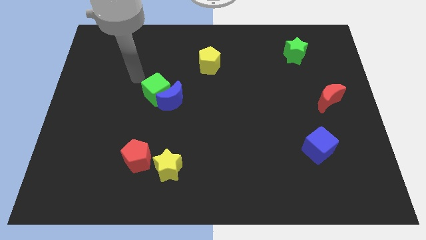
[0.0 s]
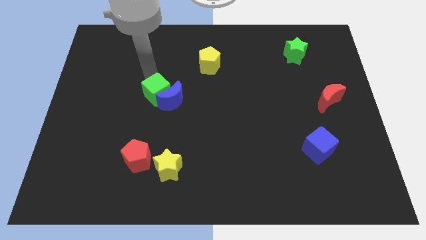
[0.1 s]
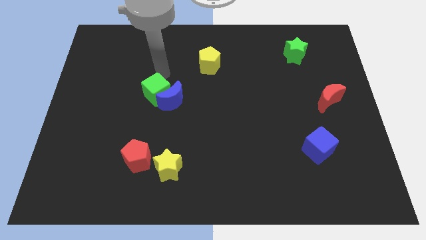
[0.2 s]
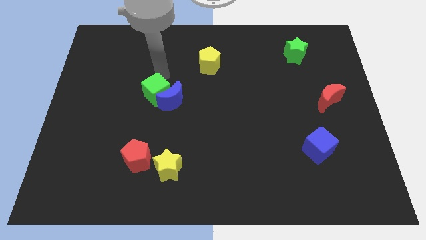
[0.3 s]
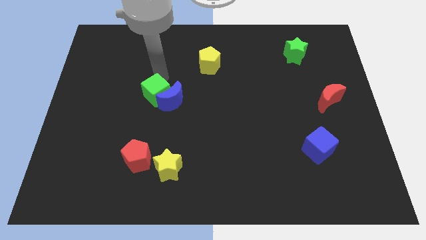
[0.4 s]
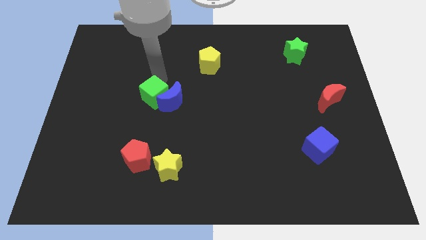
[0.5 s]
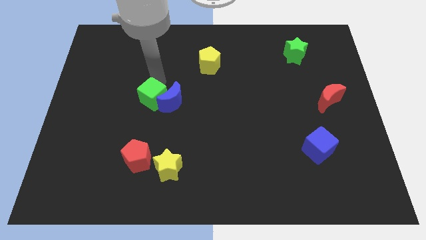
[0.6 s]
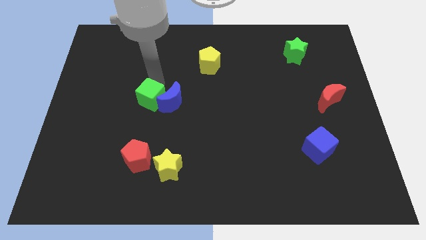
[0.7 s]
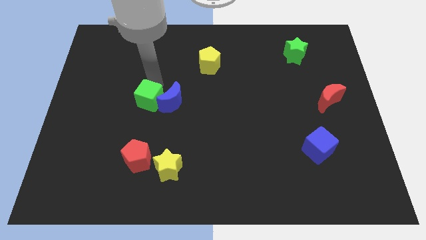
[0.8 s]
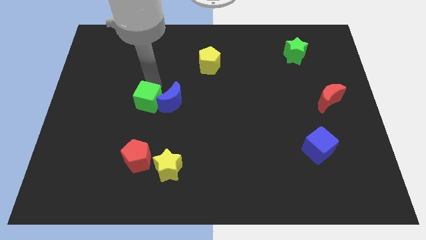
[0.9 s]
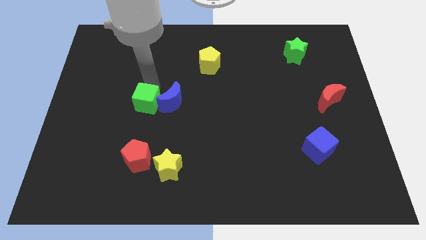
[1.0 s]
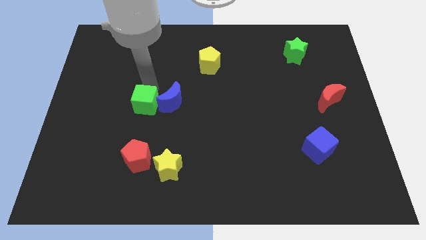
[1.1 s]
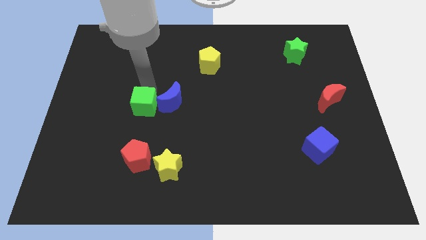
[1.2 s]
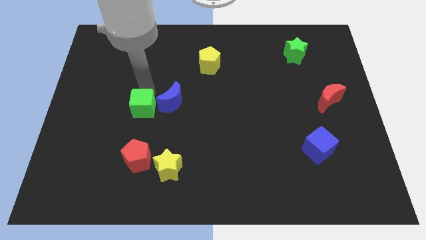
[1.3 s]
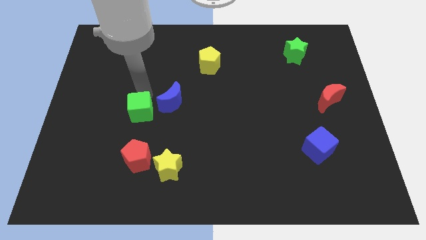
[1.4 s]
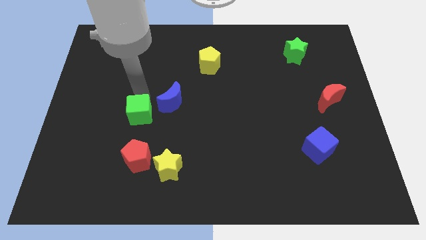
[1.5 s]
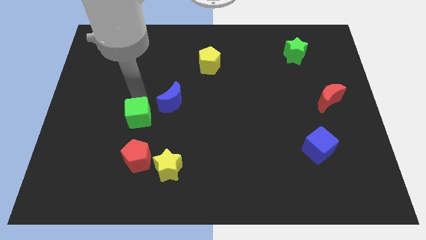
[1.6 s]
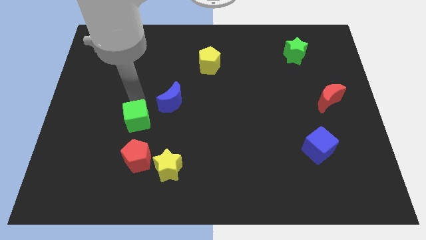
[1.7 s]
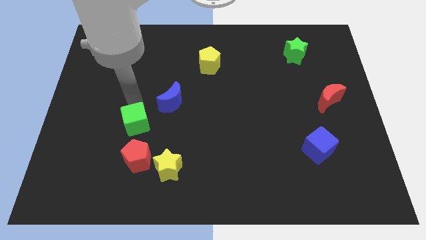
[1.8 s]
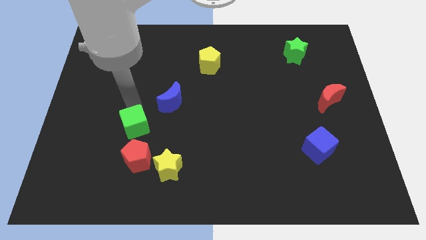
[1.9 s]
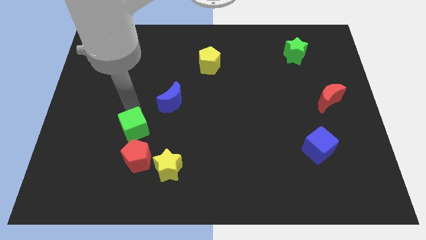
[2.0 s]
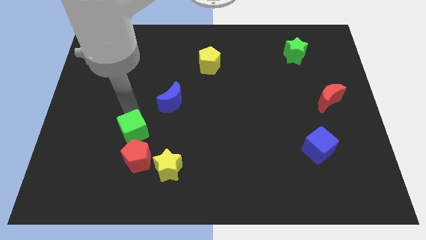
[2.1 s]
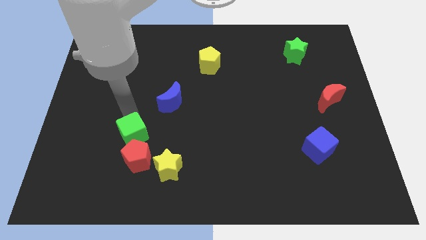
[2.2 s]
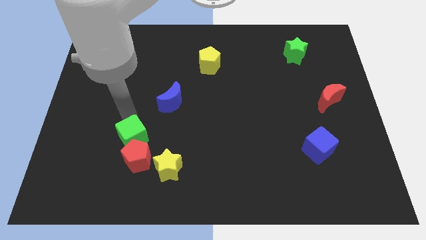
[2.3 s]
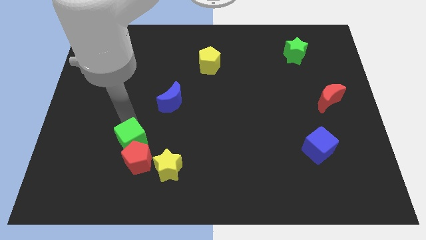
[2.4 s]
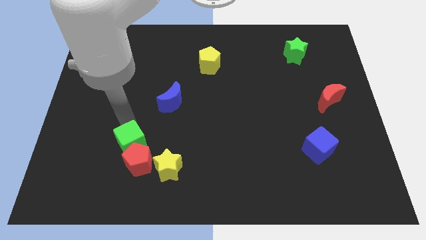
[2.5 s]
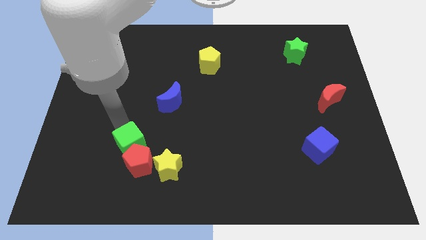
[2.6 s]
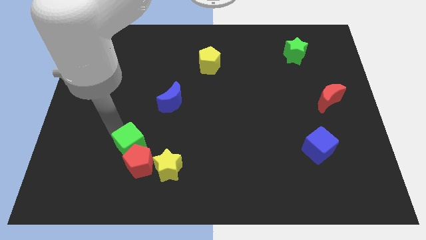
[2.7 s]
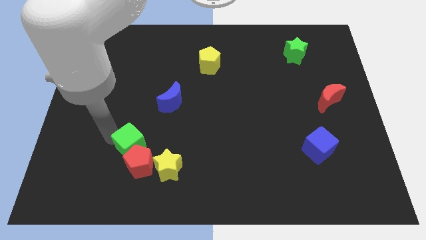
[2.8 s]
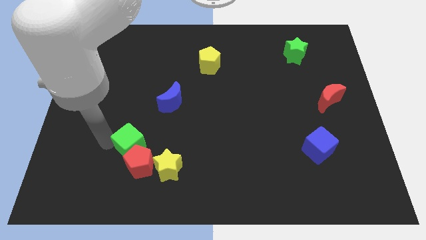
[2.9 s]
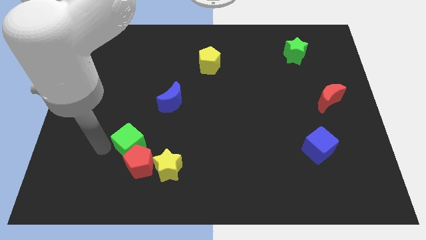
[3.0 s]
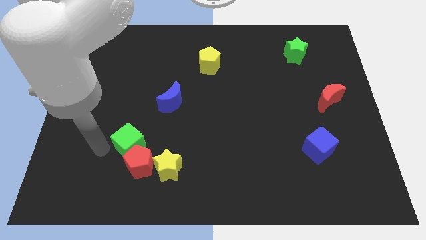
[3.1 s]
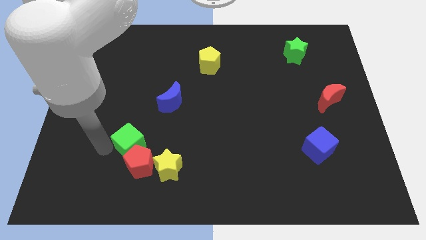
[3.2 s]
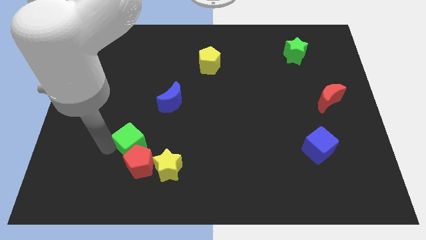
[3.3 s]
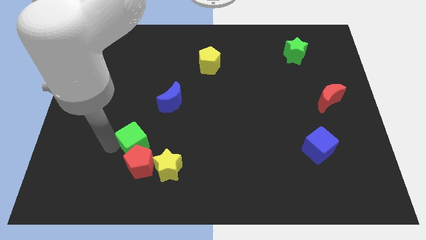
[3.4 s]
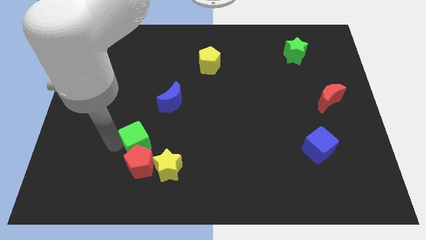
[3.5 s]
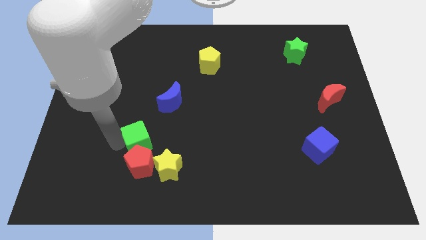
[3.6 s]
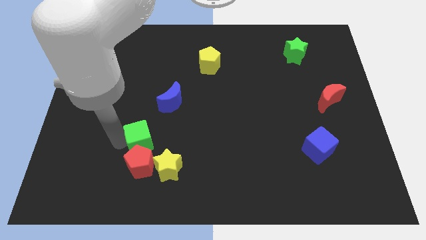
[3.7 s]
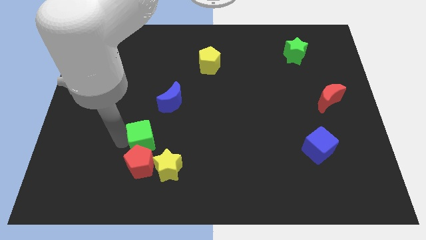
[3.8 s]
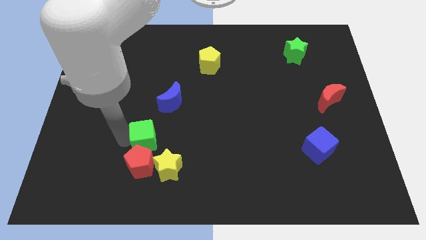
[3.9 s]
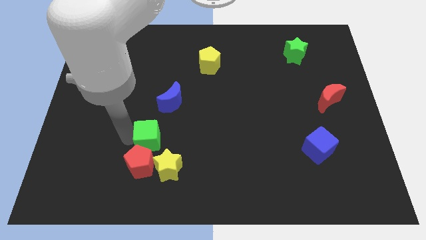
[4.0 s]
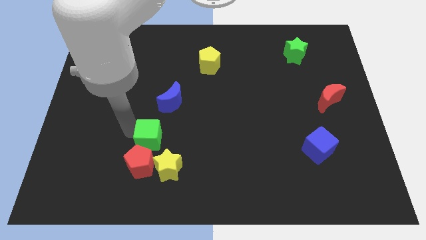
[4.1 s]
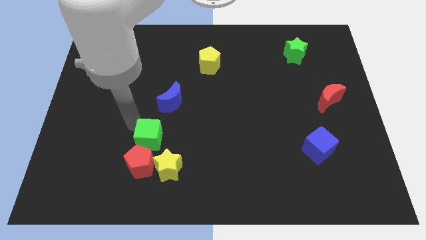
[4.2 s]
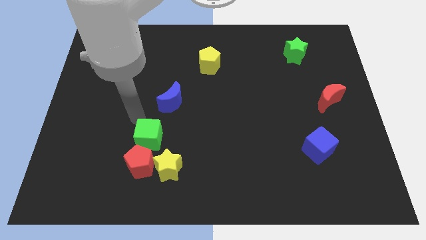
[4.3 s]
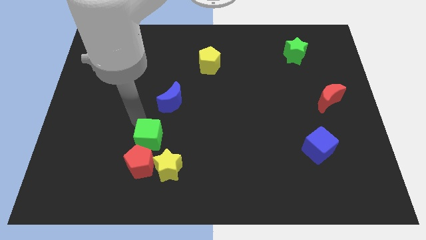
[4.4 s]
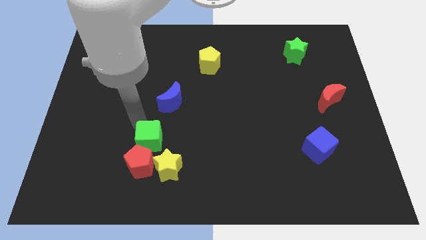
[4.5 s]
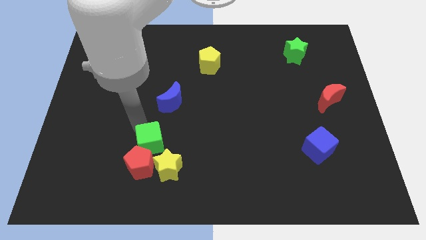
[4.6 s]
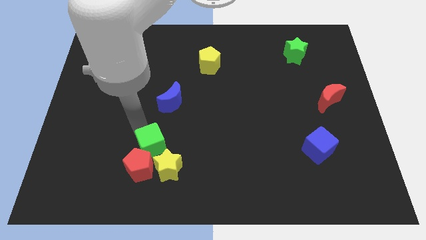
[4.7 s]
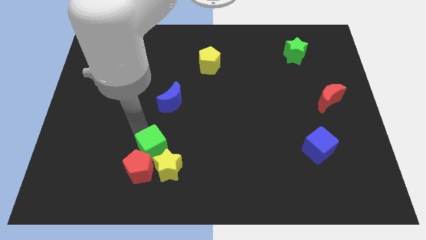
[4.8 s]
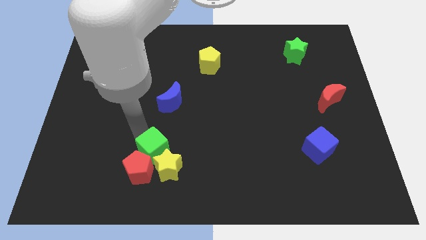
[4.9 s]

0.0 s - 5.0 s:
move the green cube towards the yellow star

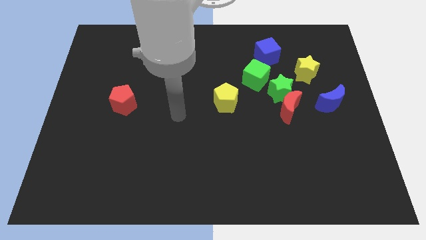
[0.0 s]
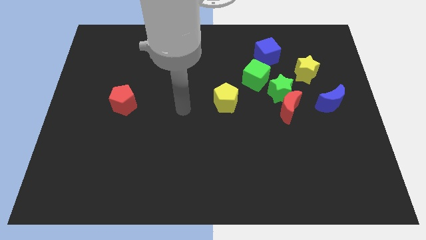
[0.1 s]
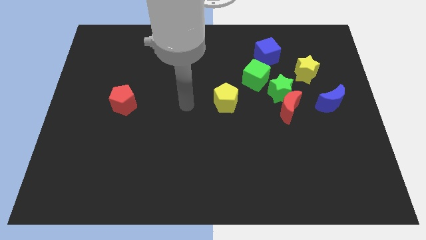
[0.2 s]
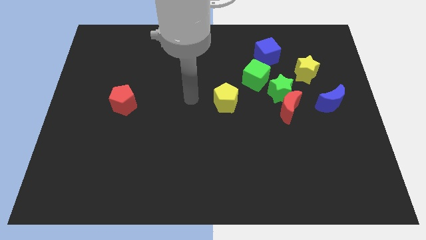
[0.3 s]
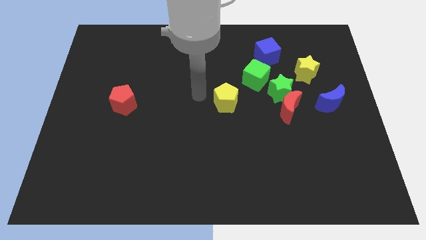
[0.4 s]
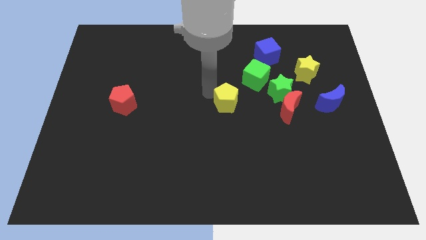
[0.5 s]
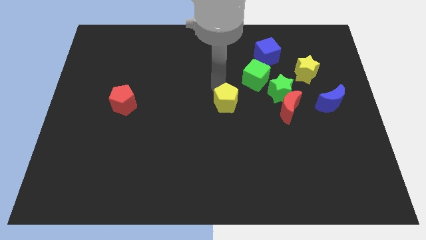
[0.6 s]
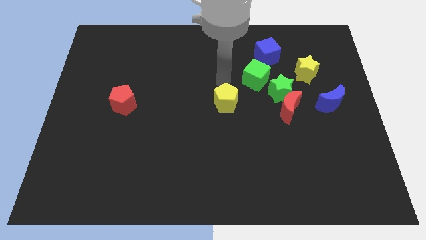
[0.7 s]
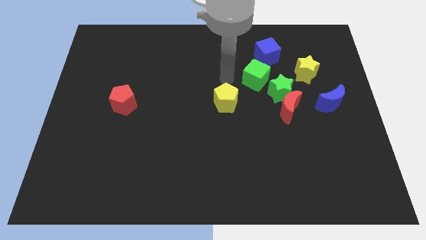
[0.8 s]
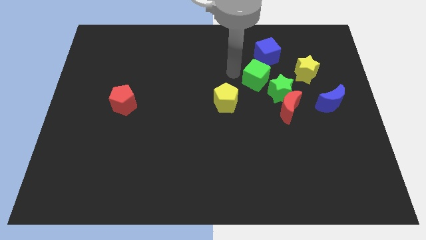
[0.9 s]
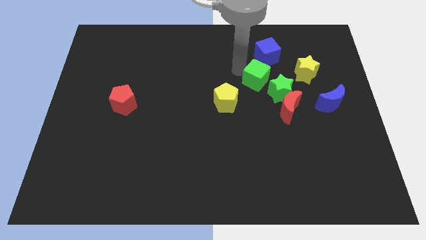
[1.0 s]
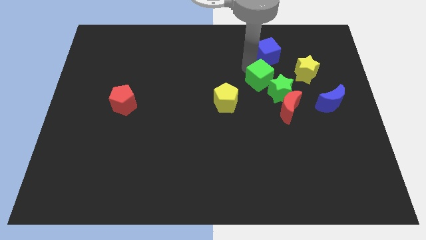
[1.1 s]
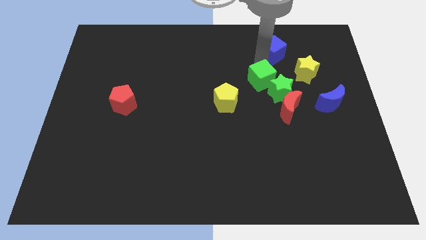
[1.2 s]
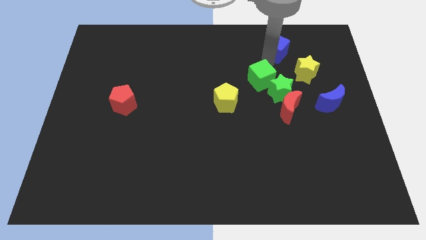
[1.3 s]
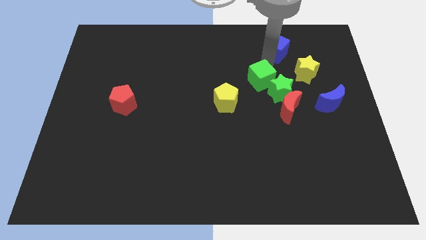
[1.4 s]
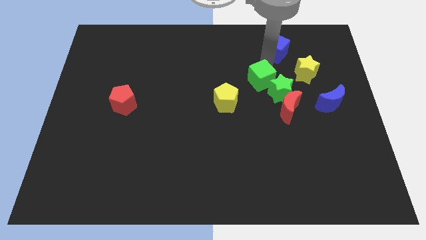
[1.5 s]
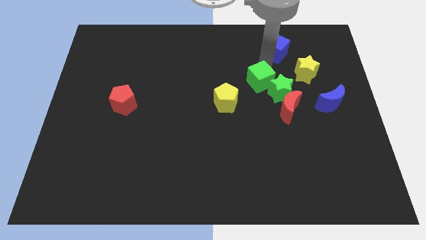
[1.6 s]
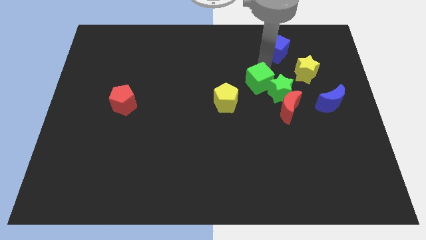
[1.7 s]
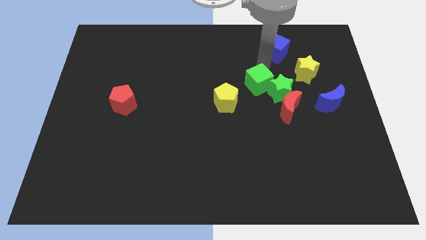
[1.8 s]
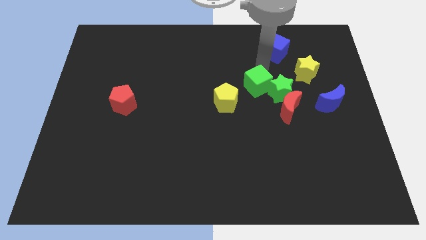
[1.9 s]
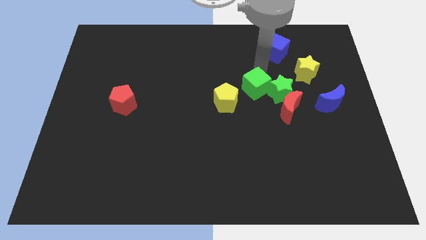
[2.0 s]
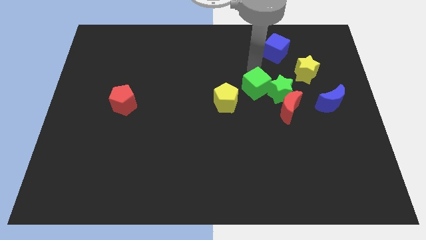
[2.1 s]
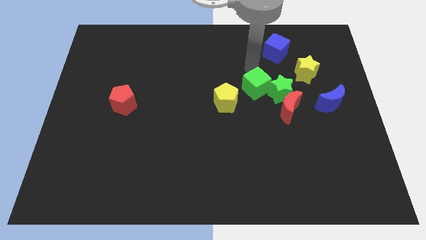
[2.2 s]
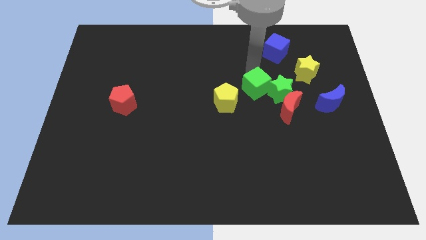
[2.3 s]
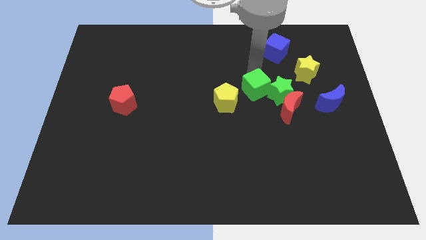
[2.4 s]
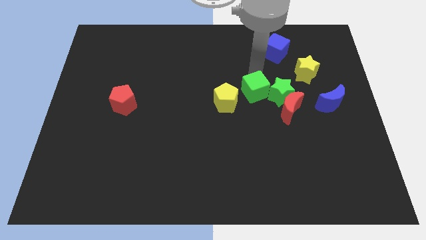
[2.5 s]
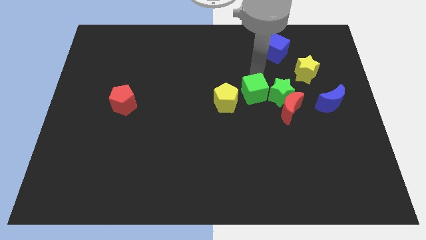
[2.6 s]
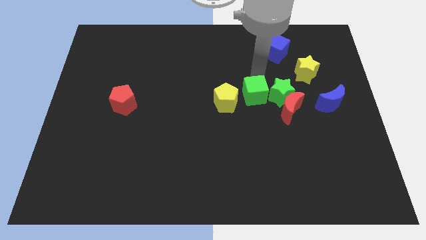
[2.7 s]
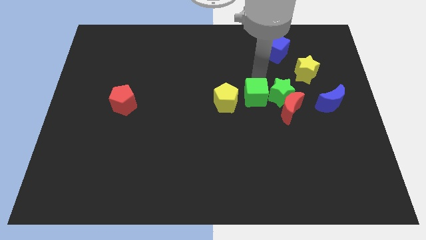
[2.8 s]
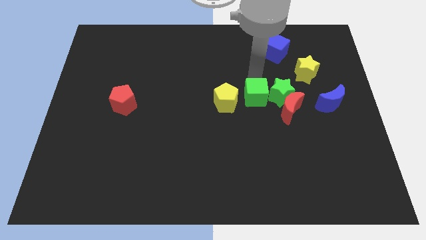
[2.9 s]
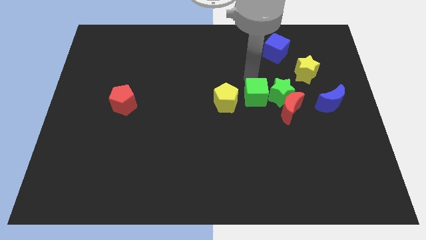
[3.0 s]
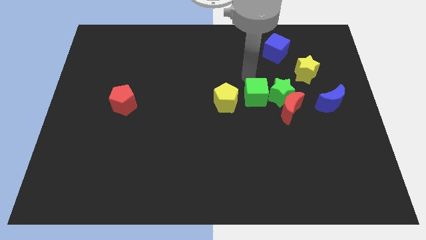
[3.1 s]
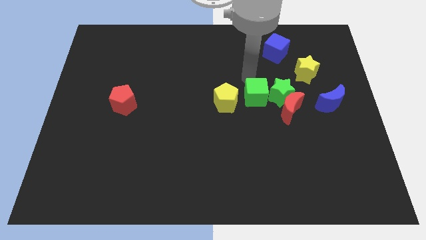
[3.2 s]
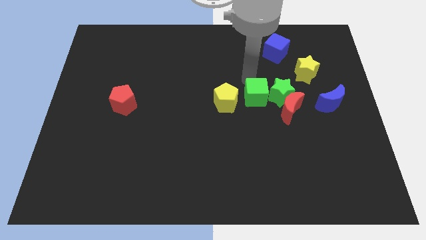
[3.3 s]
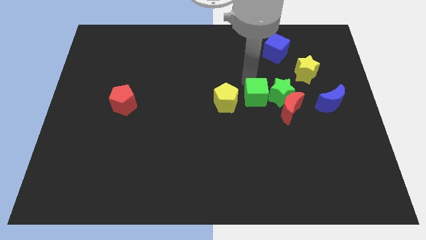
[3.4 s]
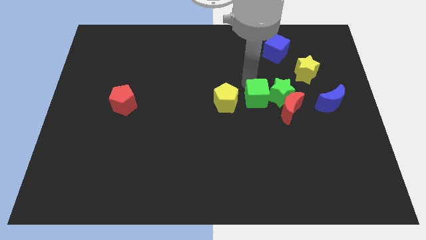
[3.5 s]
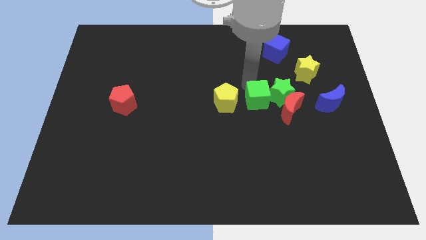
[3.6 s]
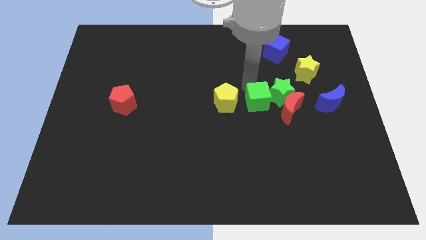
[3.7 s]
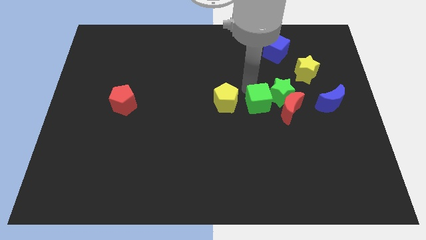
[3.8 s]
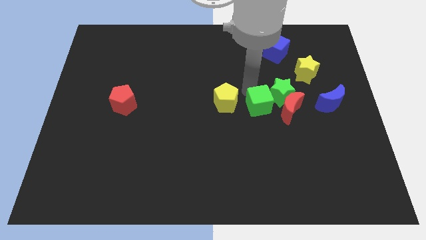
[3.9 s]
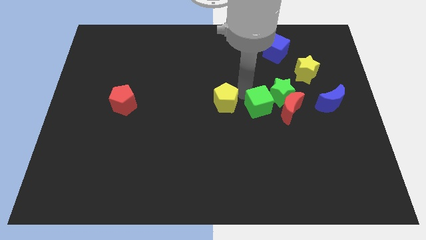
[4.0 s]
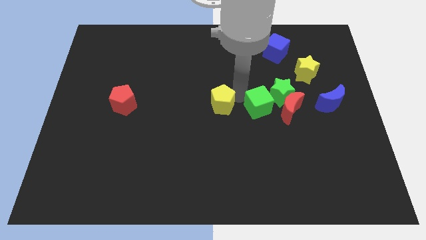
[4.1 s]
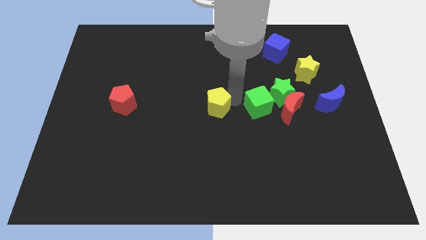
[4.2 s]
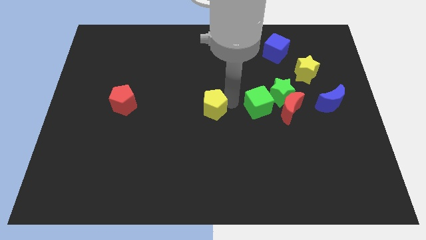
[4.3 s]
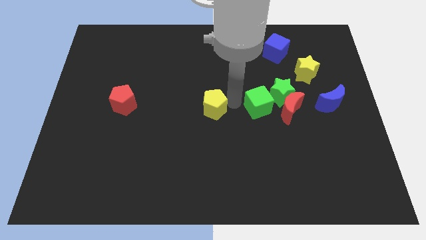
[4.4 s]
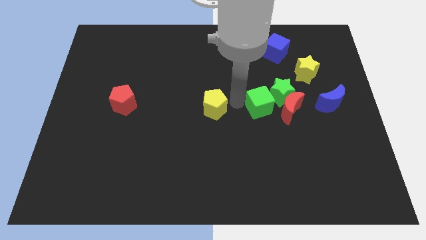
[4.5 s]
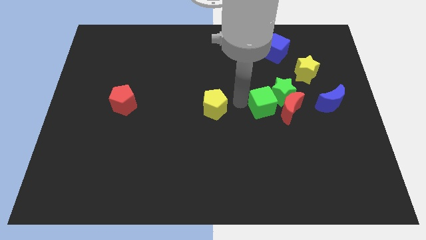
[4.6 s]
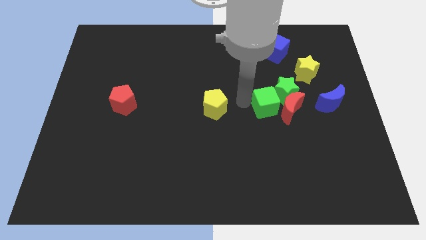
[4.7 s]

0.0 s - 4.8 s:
move the green cube close to the red moon
